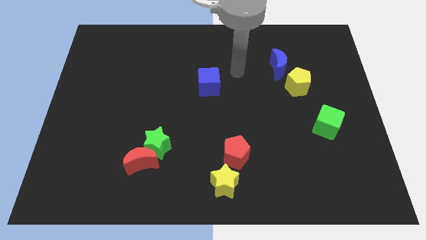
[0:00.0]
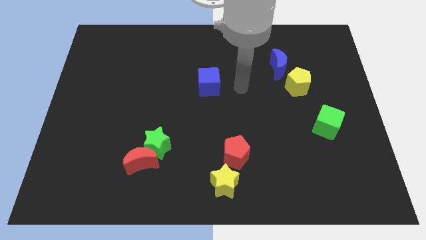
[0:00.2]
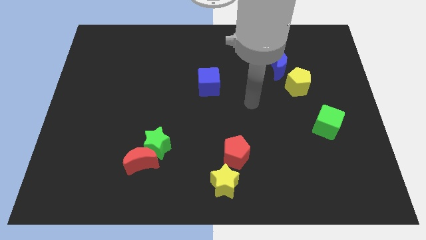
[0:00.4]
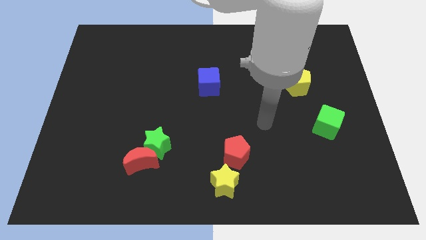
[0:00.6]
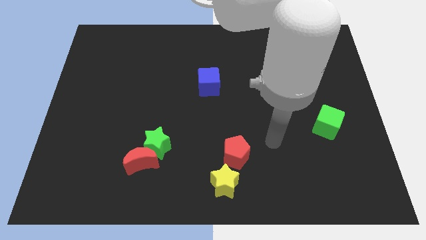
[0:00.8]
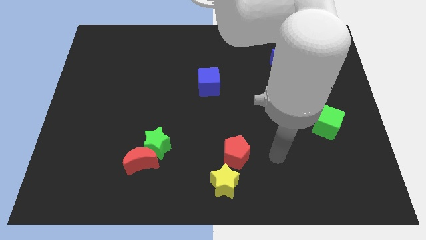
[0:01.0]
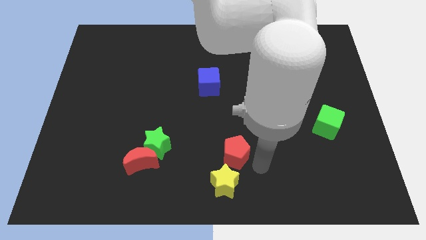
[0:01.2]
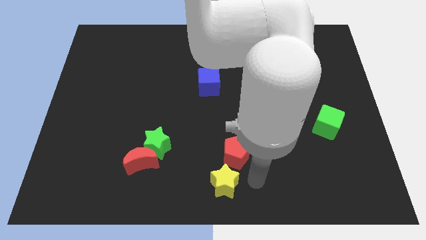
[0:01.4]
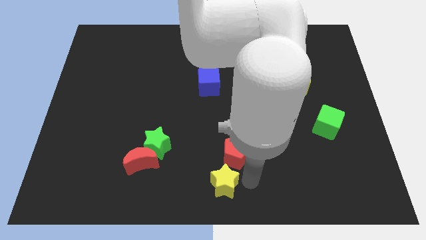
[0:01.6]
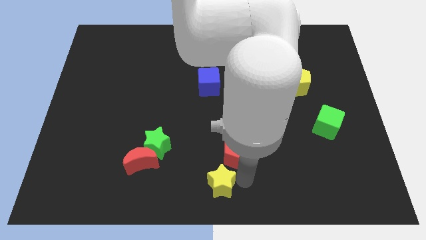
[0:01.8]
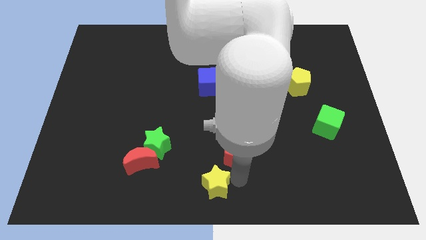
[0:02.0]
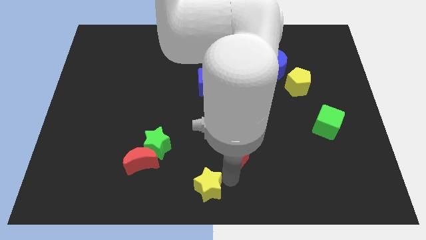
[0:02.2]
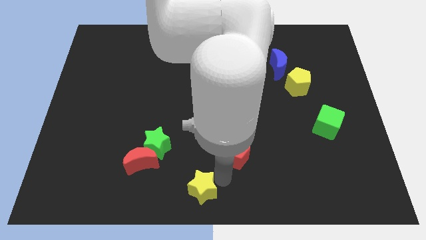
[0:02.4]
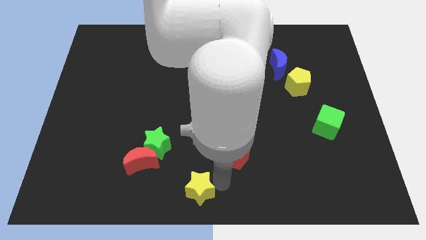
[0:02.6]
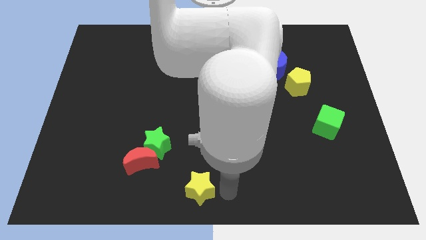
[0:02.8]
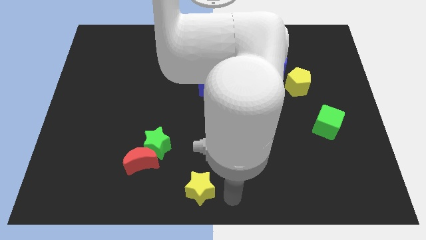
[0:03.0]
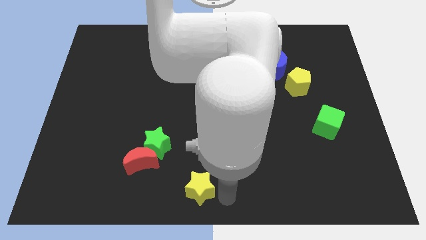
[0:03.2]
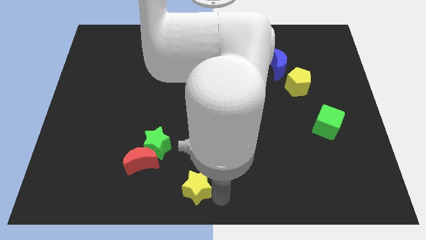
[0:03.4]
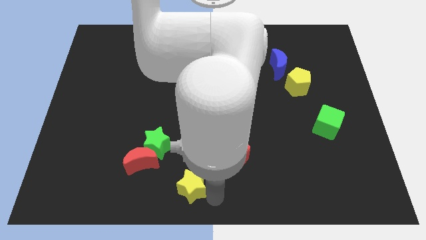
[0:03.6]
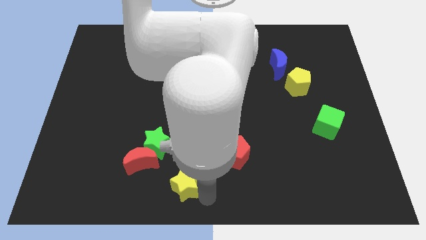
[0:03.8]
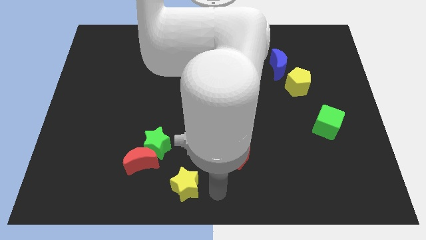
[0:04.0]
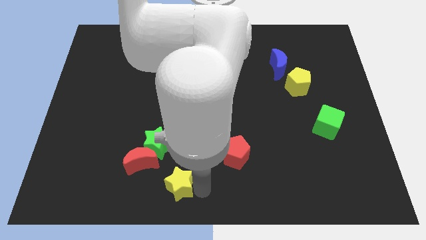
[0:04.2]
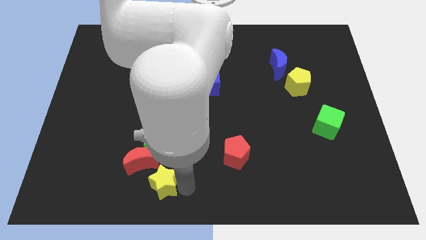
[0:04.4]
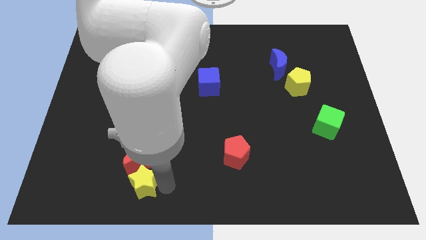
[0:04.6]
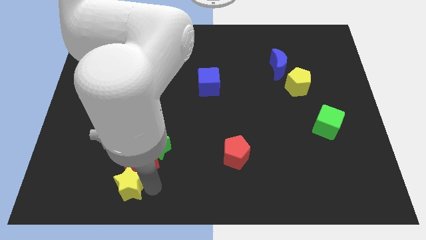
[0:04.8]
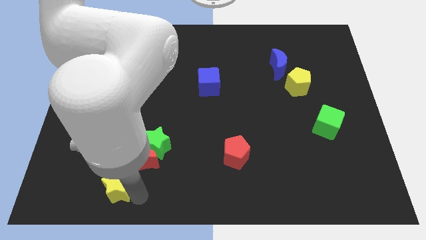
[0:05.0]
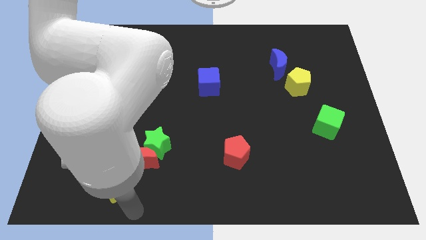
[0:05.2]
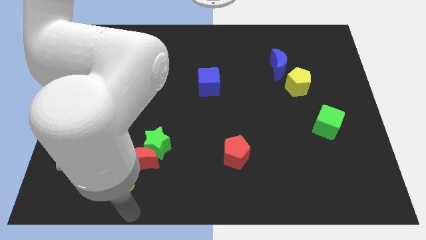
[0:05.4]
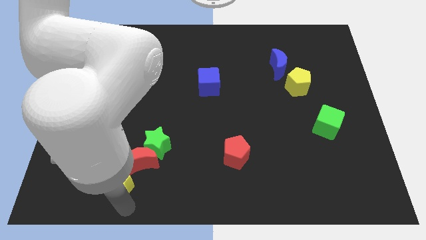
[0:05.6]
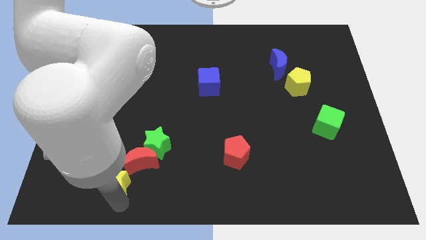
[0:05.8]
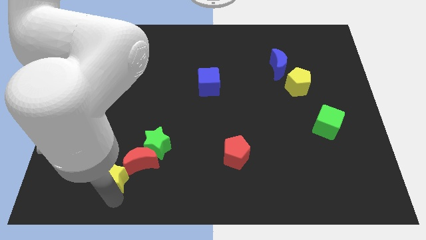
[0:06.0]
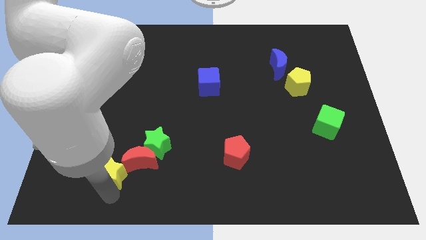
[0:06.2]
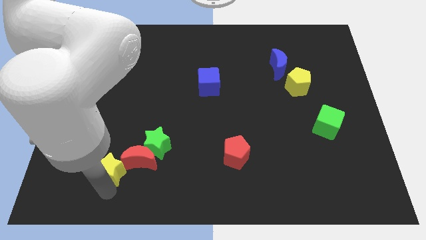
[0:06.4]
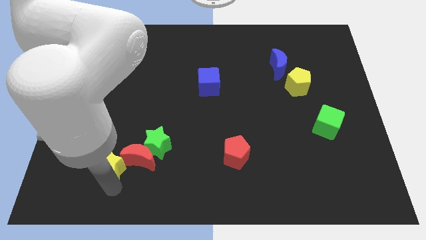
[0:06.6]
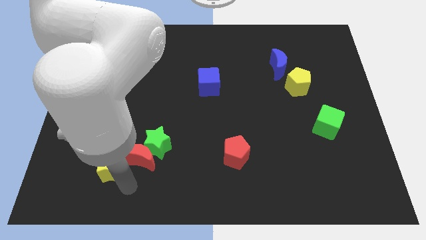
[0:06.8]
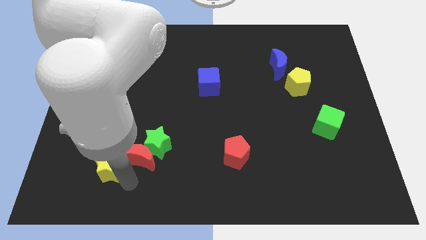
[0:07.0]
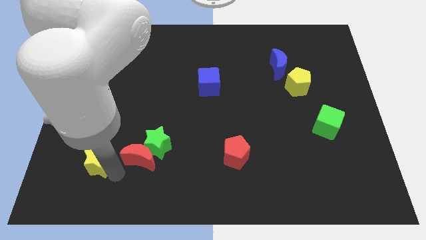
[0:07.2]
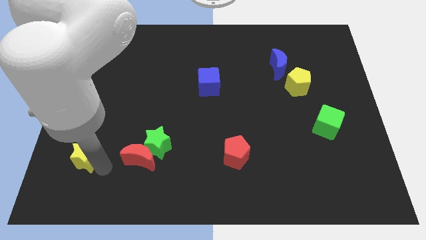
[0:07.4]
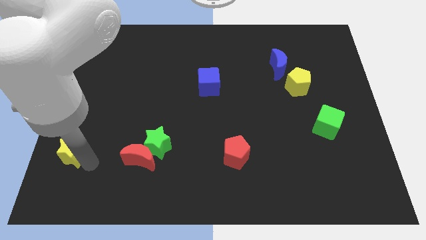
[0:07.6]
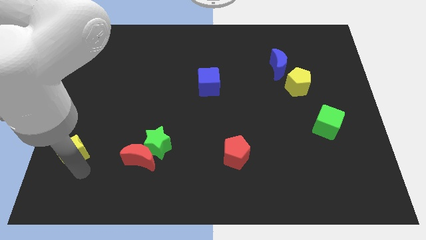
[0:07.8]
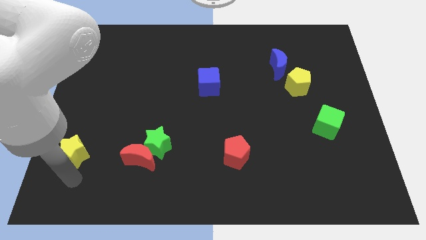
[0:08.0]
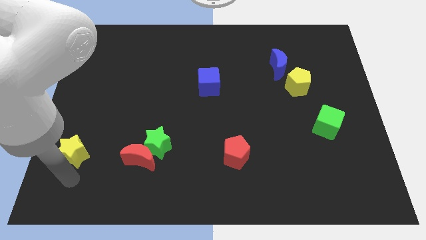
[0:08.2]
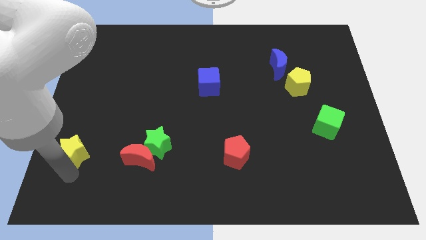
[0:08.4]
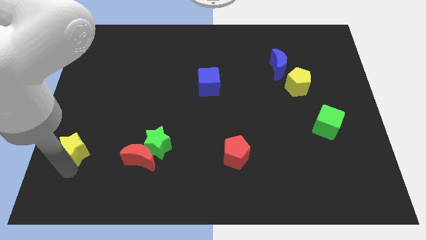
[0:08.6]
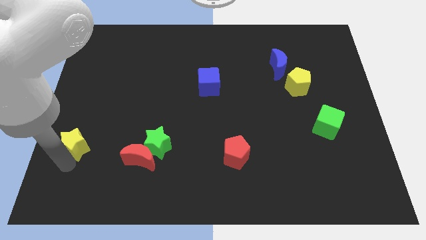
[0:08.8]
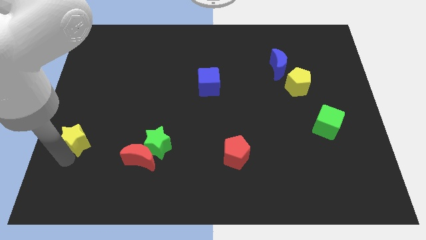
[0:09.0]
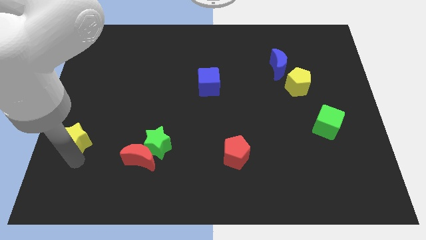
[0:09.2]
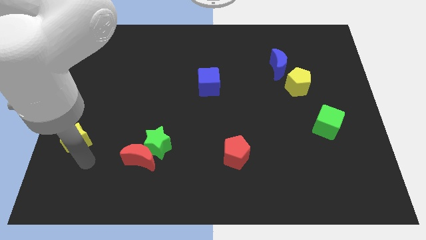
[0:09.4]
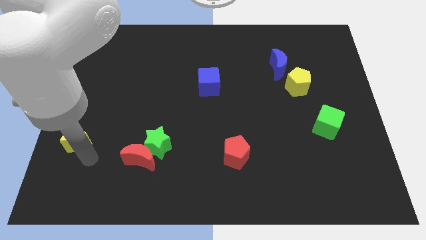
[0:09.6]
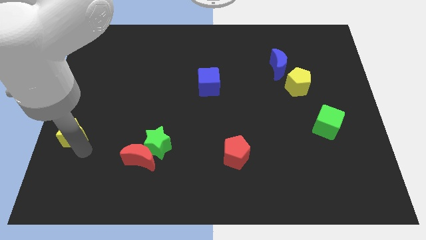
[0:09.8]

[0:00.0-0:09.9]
push the yellow star to the left side of the board

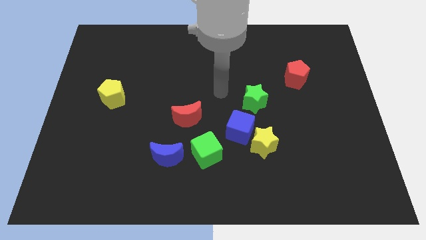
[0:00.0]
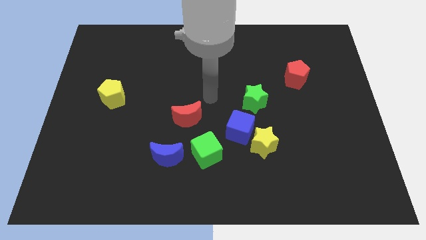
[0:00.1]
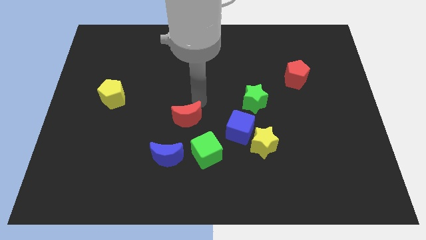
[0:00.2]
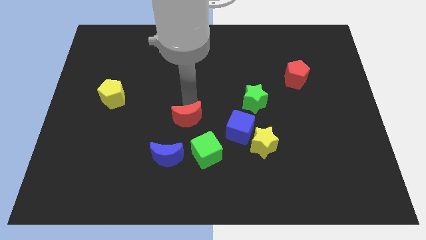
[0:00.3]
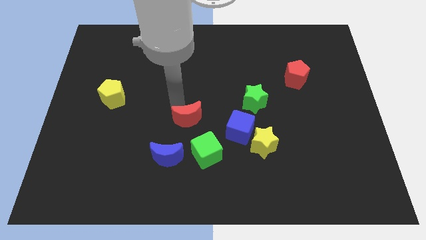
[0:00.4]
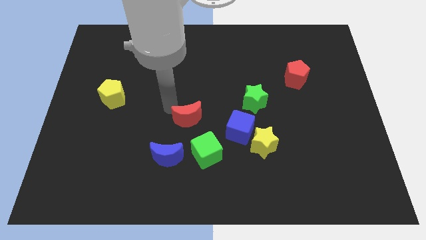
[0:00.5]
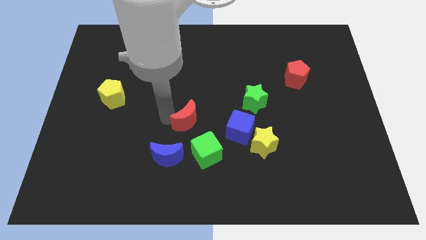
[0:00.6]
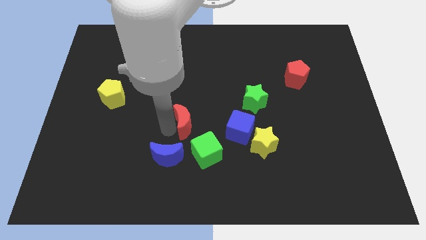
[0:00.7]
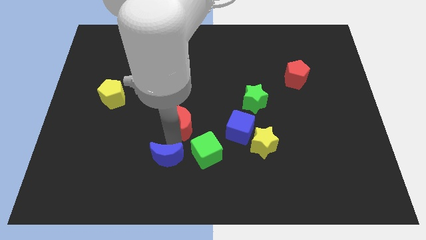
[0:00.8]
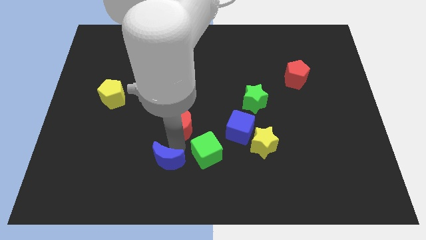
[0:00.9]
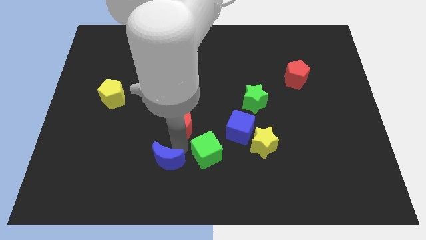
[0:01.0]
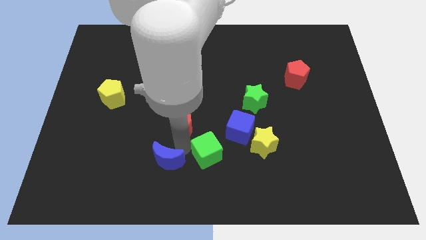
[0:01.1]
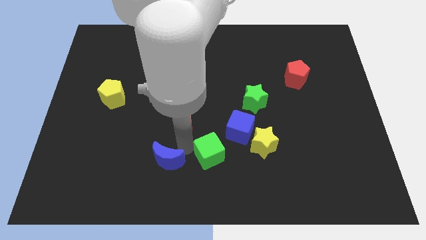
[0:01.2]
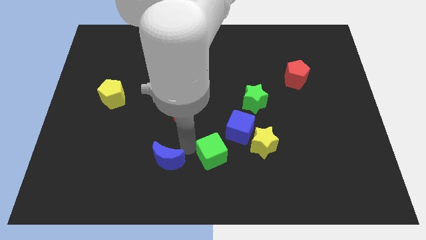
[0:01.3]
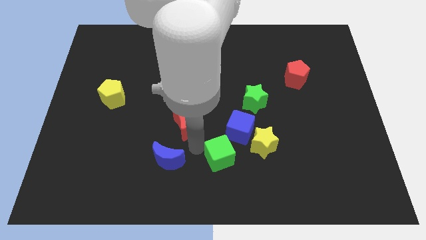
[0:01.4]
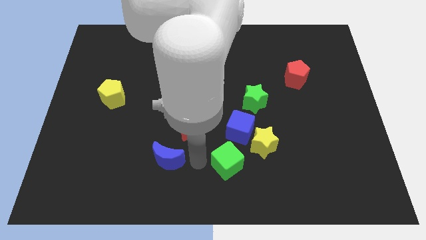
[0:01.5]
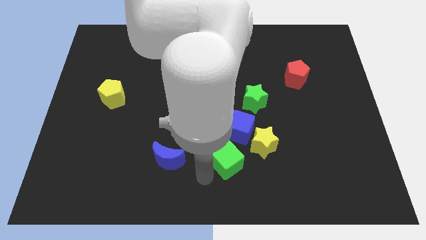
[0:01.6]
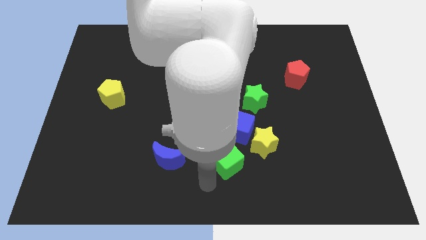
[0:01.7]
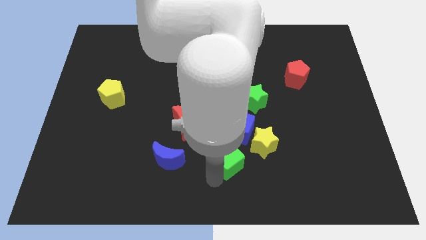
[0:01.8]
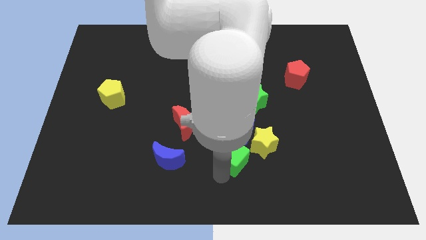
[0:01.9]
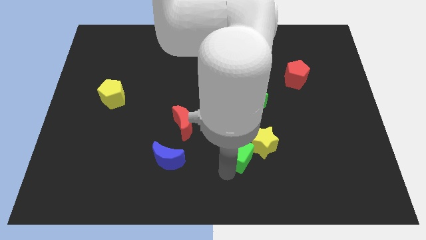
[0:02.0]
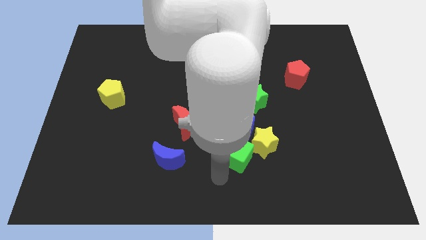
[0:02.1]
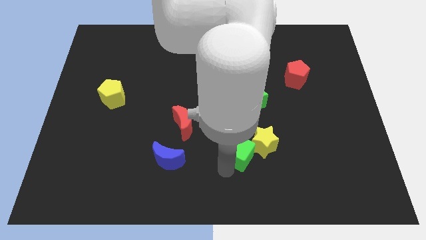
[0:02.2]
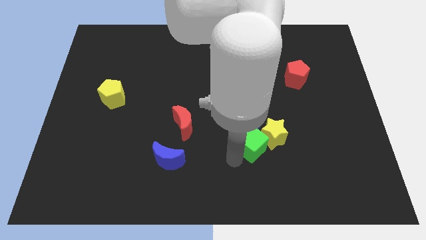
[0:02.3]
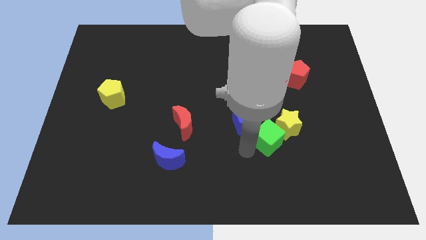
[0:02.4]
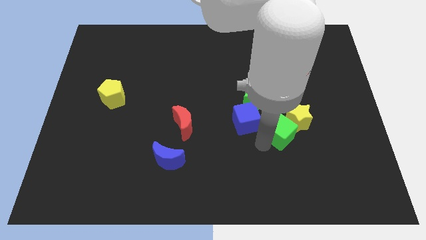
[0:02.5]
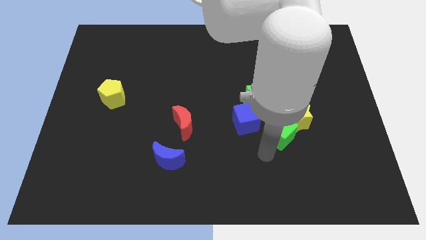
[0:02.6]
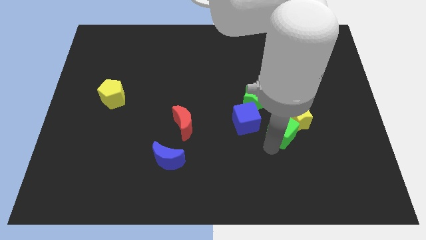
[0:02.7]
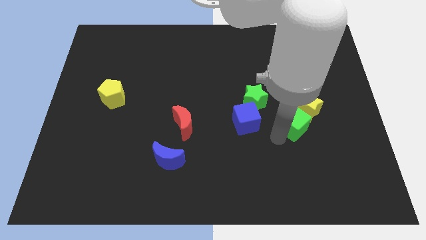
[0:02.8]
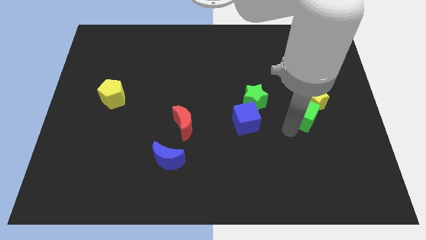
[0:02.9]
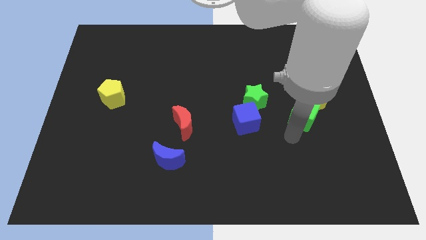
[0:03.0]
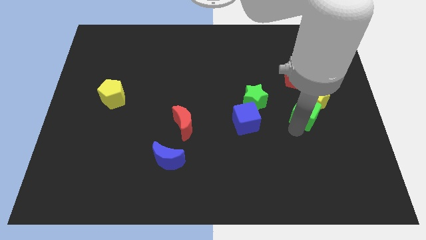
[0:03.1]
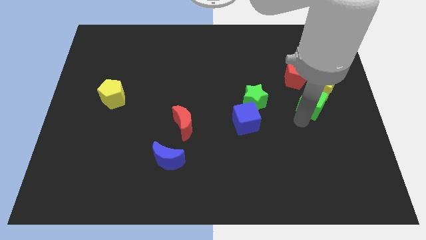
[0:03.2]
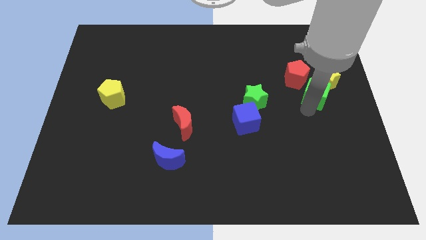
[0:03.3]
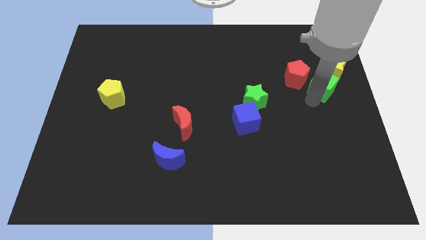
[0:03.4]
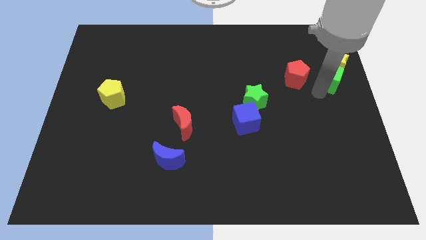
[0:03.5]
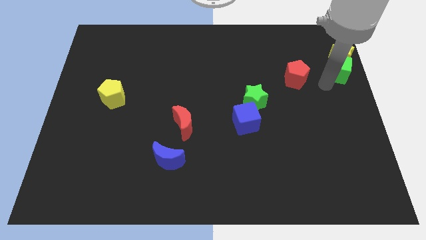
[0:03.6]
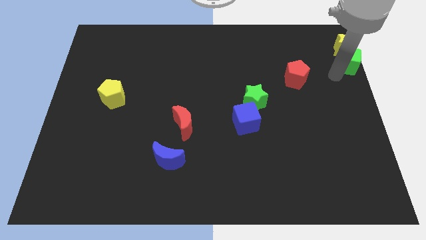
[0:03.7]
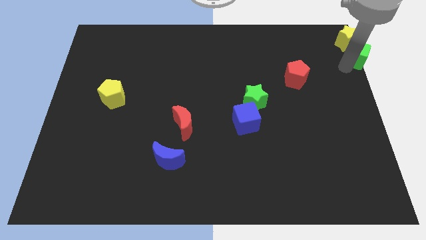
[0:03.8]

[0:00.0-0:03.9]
put the green cube to the top right corner
